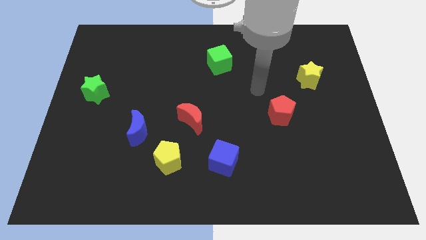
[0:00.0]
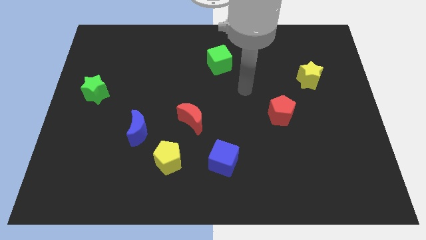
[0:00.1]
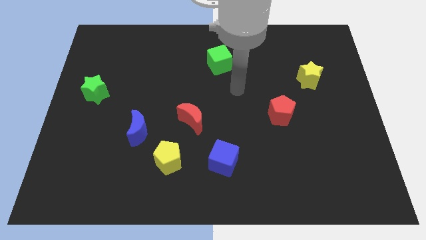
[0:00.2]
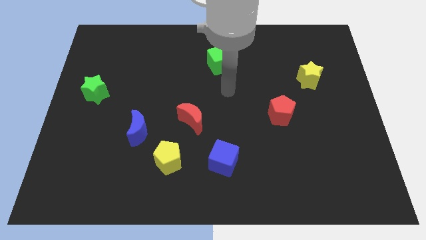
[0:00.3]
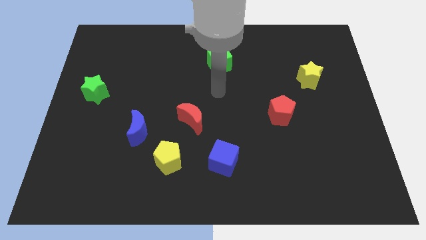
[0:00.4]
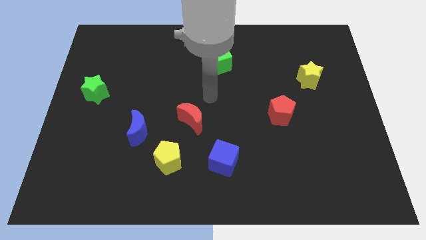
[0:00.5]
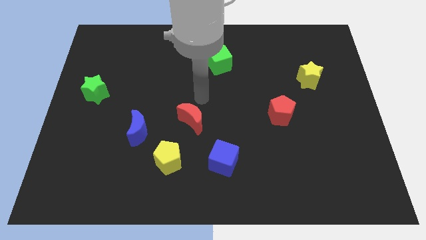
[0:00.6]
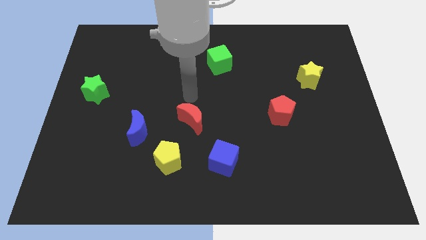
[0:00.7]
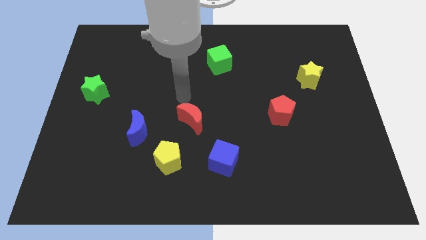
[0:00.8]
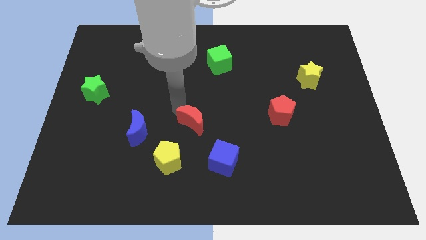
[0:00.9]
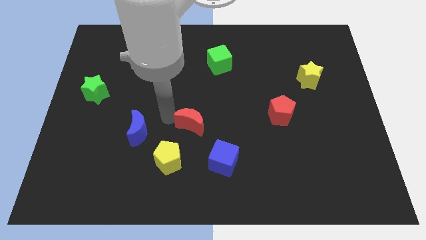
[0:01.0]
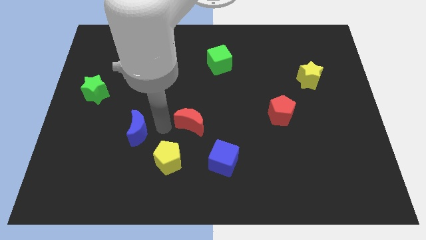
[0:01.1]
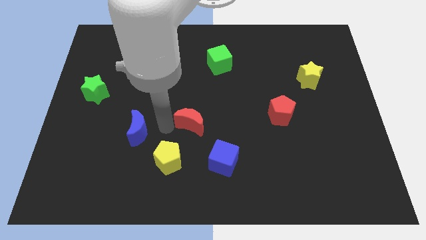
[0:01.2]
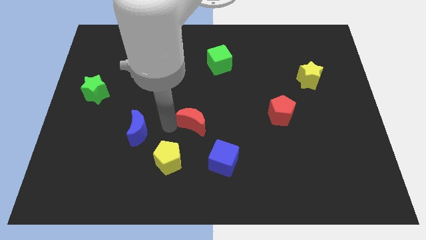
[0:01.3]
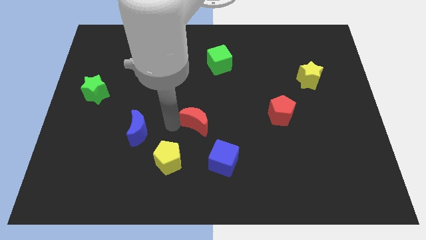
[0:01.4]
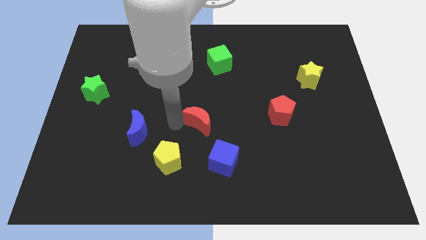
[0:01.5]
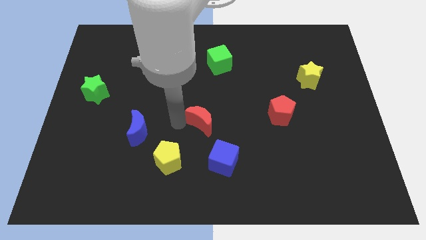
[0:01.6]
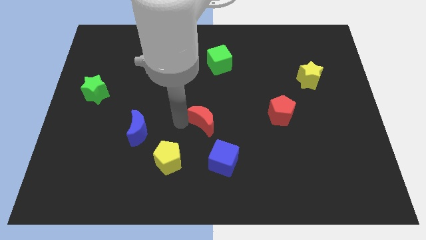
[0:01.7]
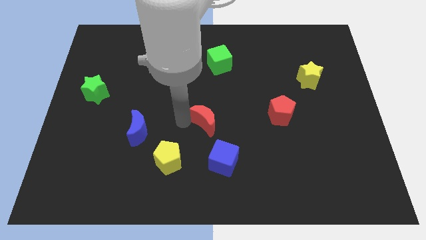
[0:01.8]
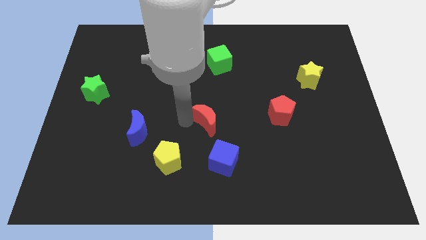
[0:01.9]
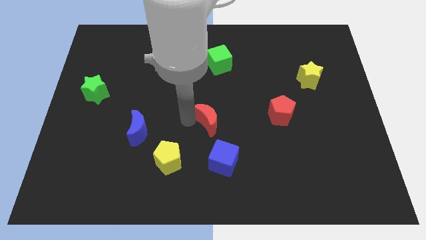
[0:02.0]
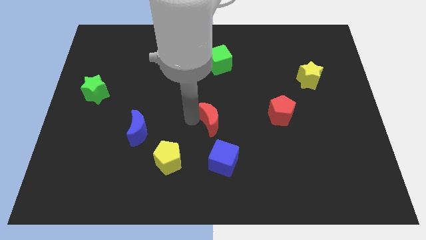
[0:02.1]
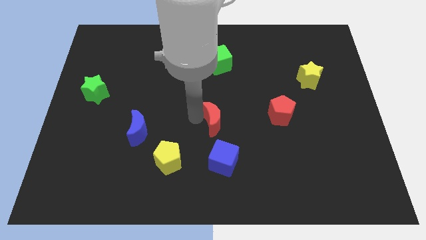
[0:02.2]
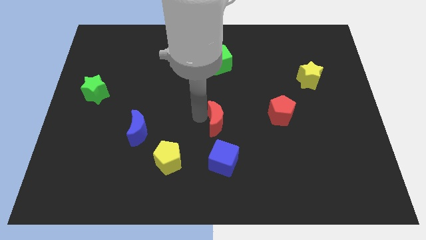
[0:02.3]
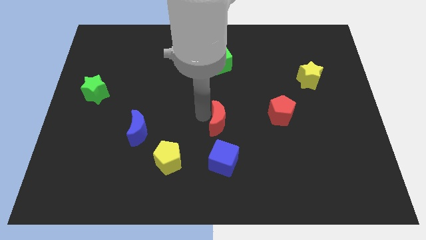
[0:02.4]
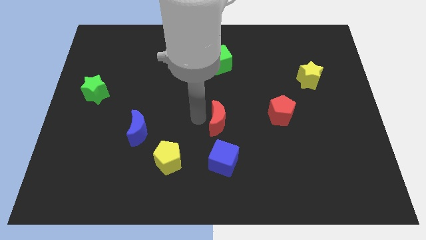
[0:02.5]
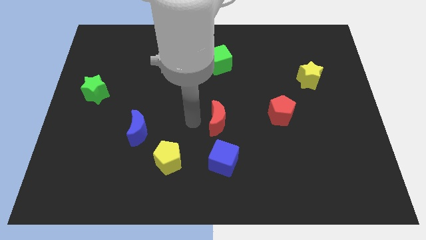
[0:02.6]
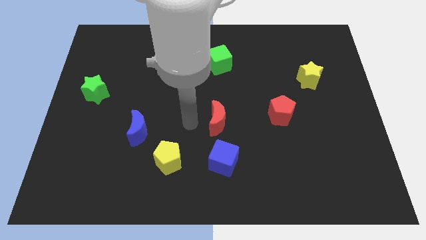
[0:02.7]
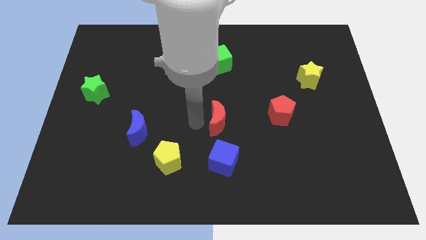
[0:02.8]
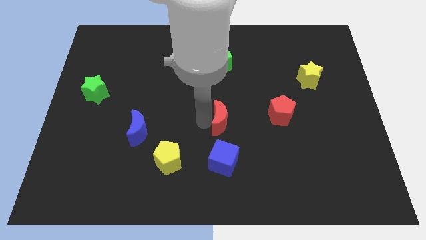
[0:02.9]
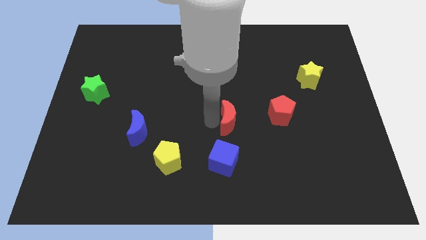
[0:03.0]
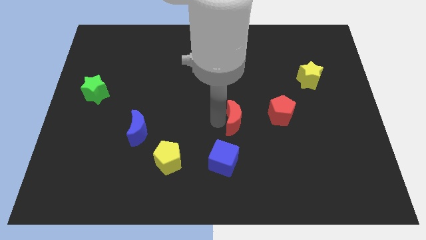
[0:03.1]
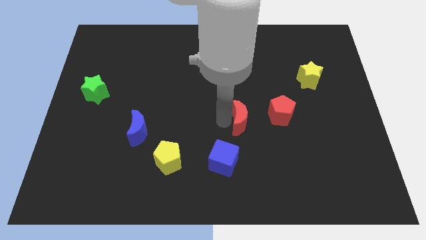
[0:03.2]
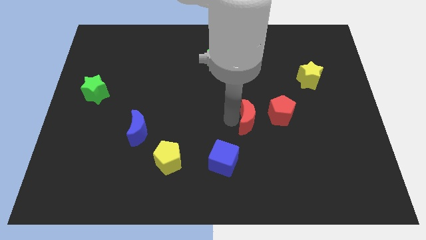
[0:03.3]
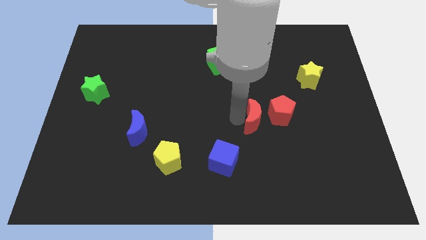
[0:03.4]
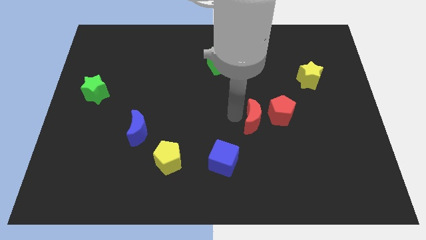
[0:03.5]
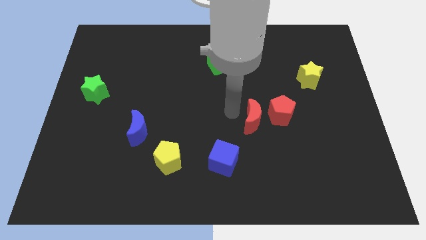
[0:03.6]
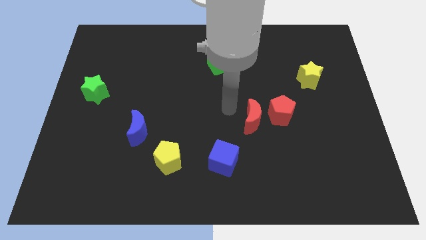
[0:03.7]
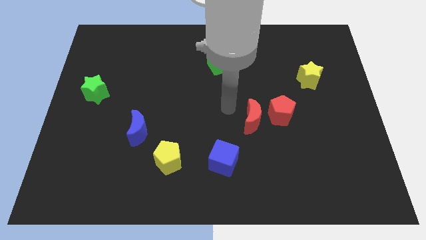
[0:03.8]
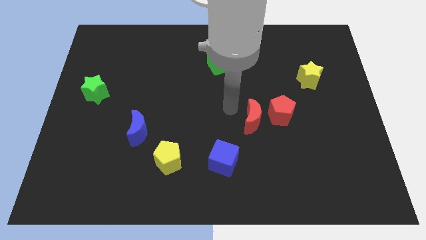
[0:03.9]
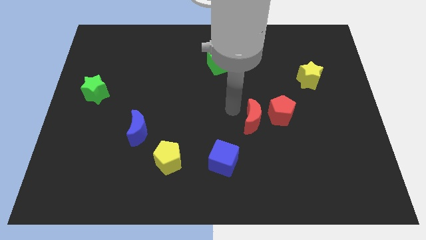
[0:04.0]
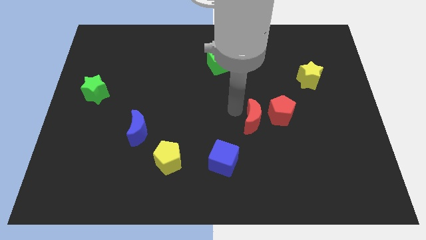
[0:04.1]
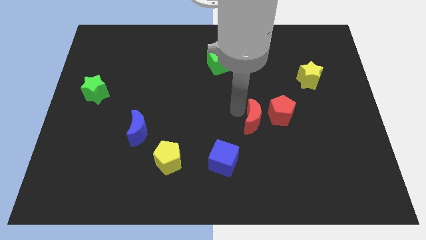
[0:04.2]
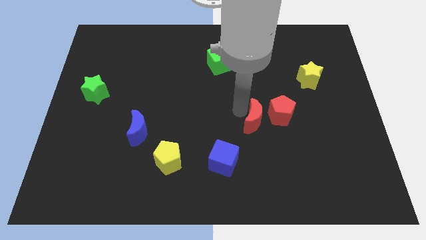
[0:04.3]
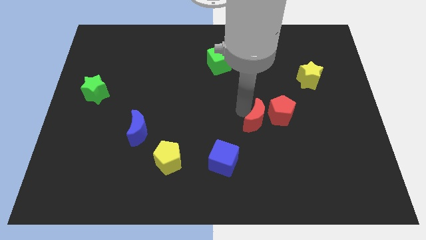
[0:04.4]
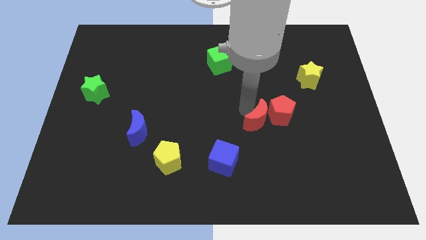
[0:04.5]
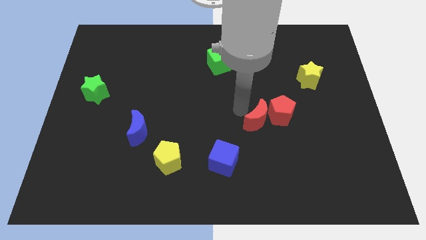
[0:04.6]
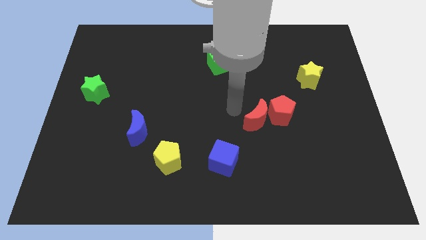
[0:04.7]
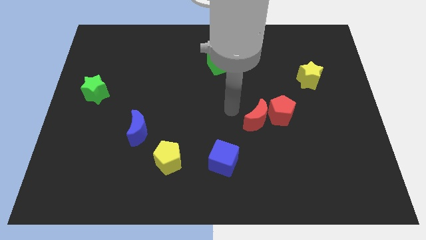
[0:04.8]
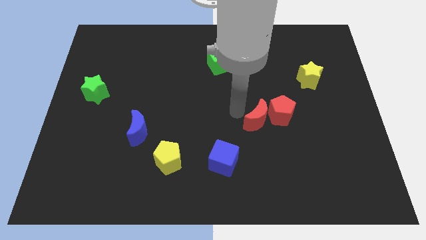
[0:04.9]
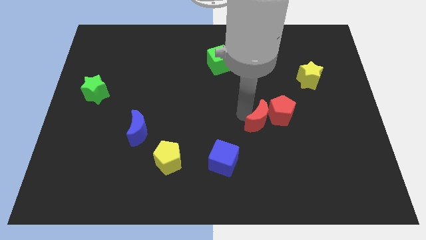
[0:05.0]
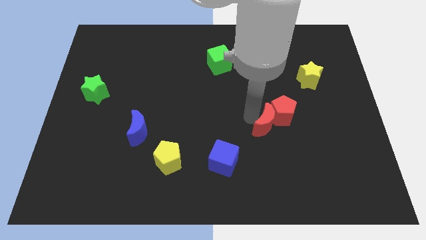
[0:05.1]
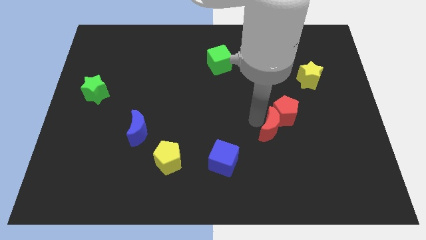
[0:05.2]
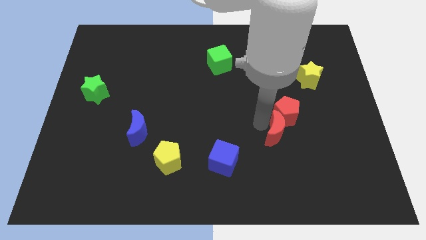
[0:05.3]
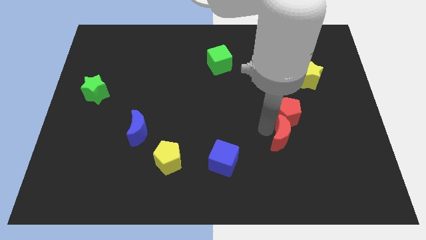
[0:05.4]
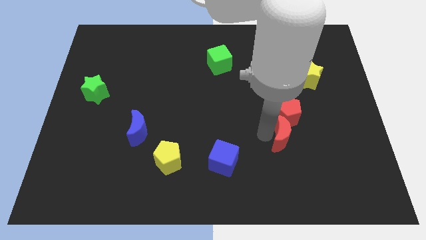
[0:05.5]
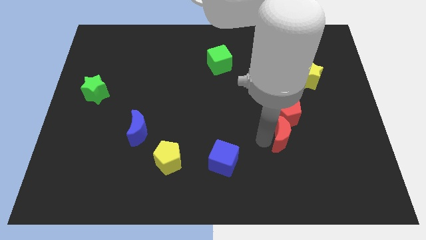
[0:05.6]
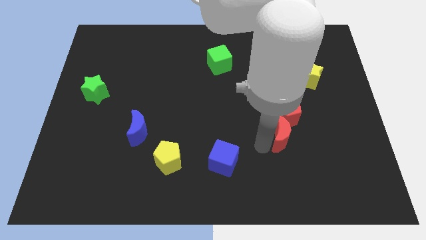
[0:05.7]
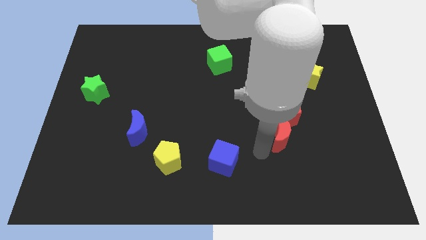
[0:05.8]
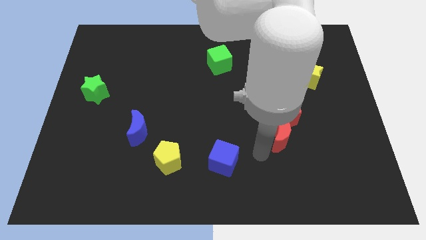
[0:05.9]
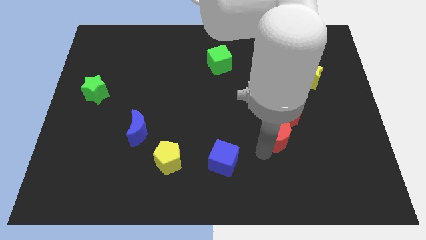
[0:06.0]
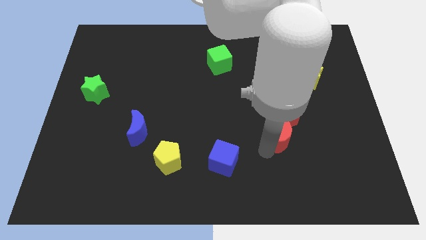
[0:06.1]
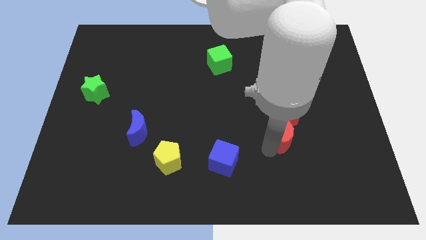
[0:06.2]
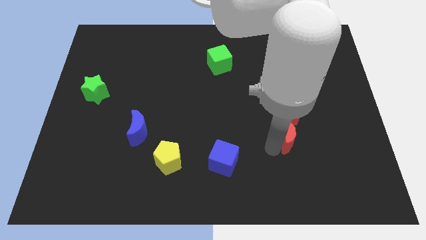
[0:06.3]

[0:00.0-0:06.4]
push the red moon to the right

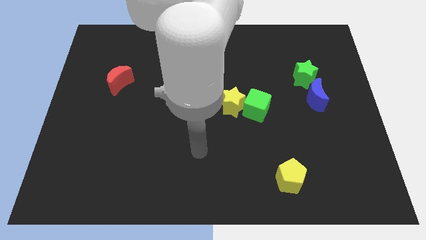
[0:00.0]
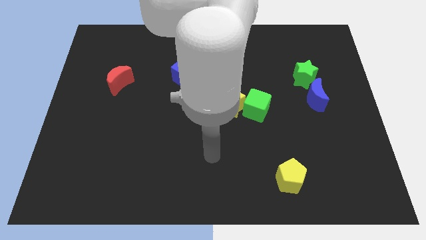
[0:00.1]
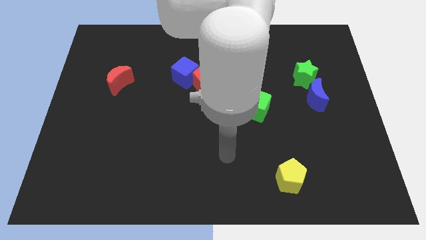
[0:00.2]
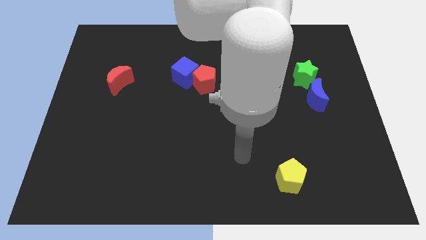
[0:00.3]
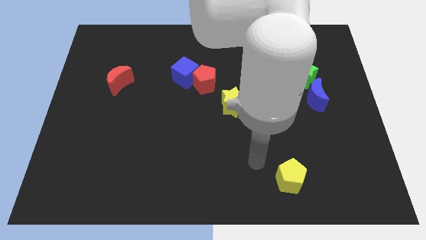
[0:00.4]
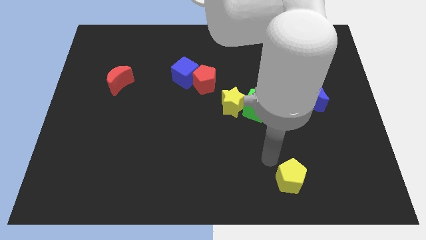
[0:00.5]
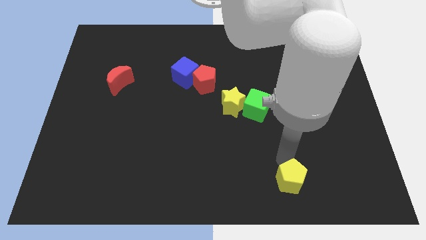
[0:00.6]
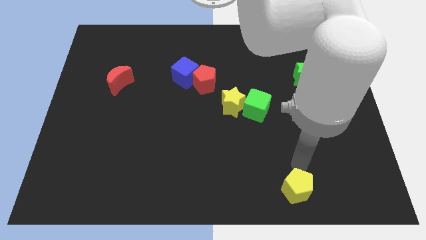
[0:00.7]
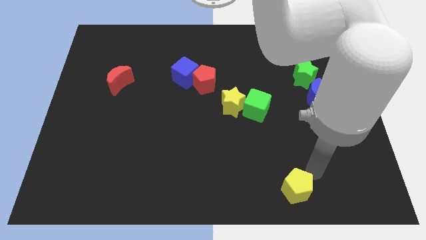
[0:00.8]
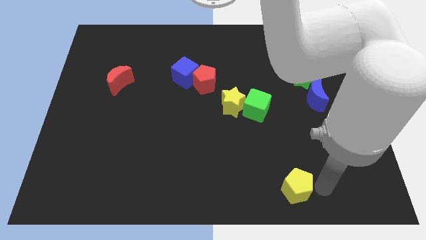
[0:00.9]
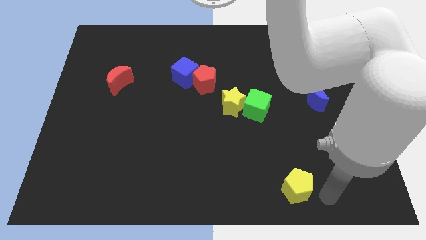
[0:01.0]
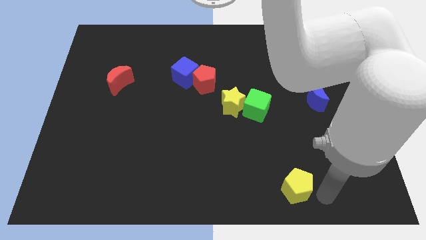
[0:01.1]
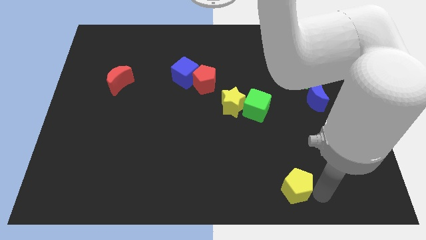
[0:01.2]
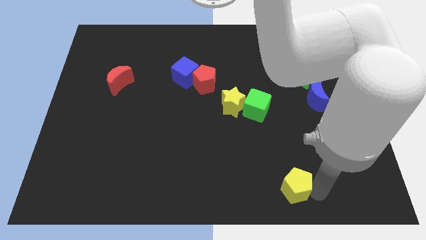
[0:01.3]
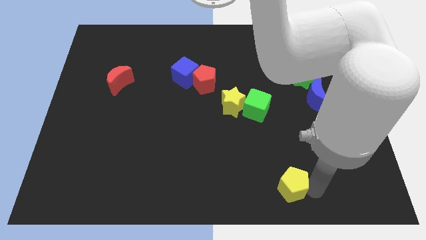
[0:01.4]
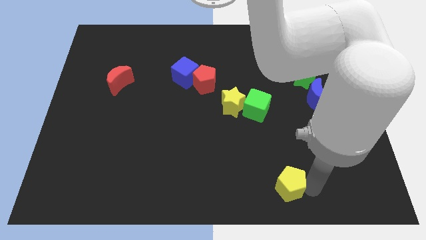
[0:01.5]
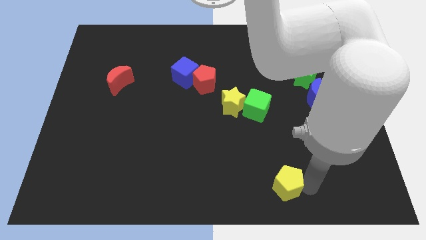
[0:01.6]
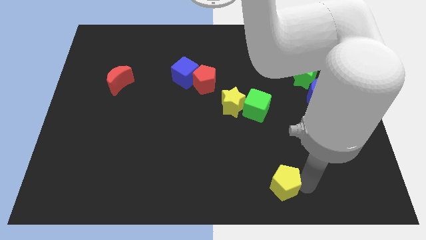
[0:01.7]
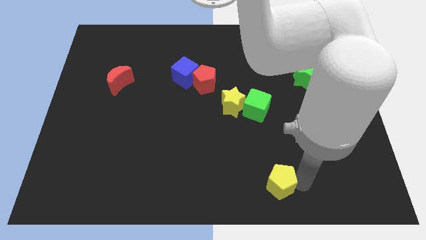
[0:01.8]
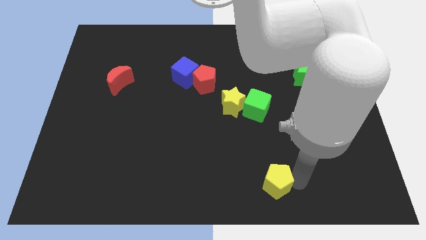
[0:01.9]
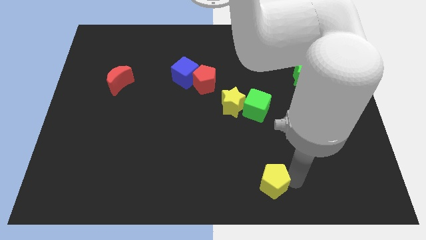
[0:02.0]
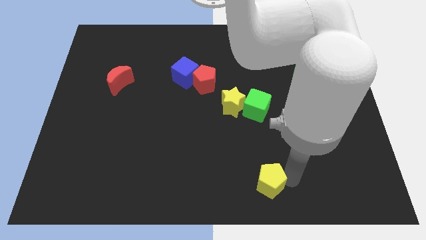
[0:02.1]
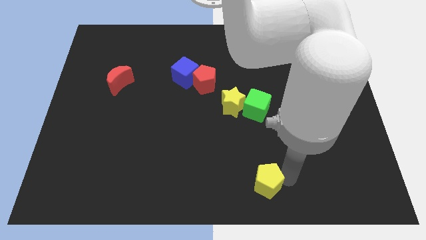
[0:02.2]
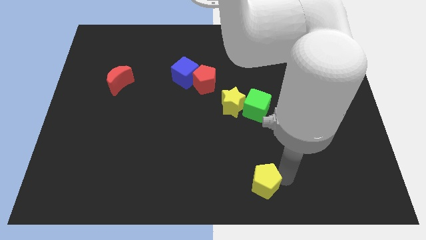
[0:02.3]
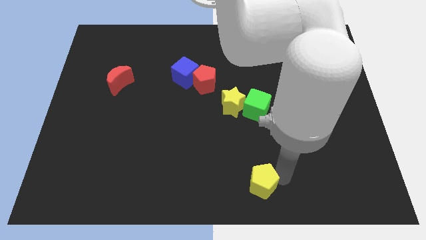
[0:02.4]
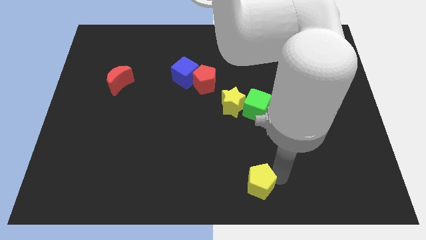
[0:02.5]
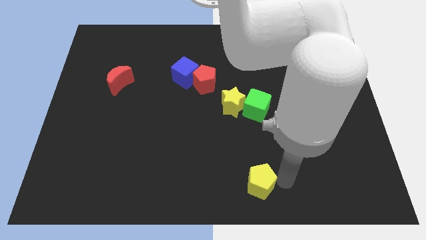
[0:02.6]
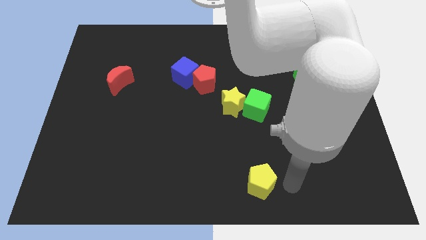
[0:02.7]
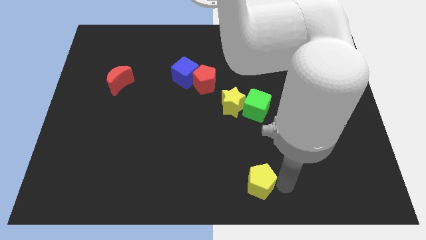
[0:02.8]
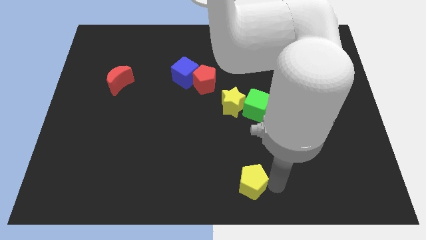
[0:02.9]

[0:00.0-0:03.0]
slide the yellow pentagon to the left somewhat
